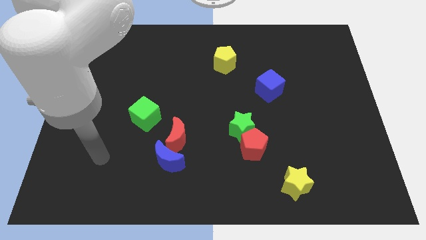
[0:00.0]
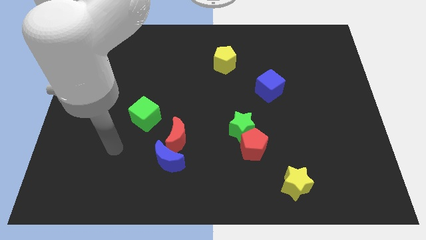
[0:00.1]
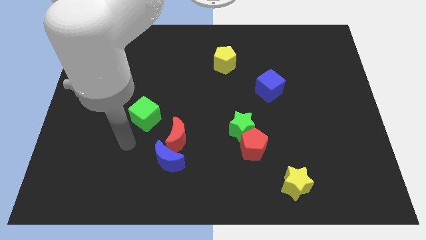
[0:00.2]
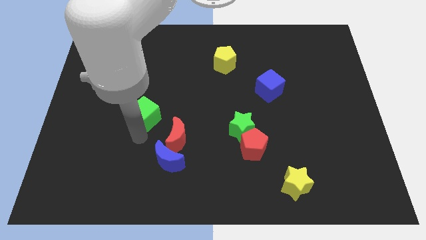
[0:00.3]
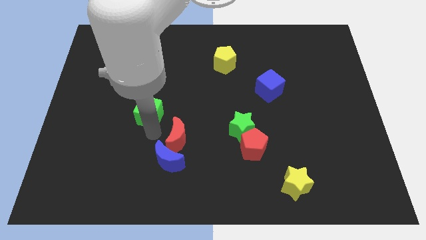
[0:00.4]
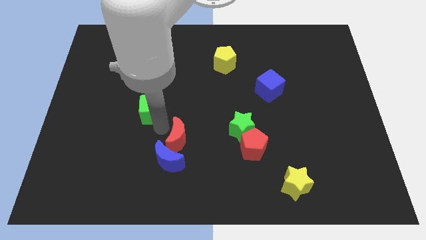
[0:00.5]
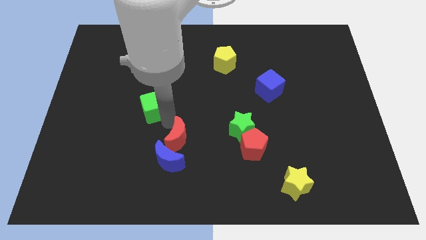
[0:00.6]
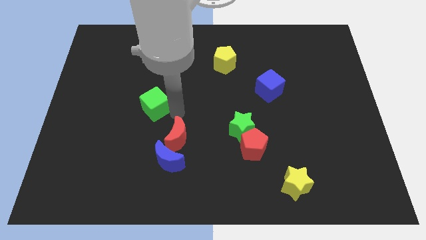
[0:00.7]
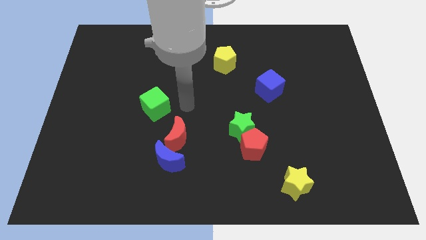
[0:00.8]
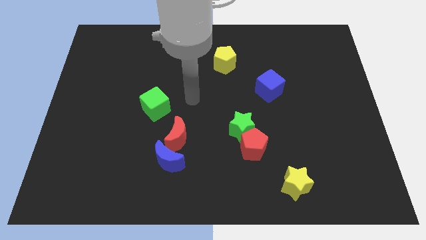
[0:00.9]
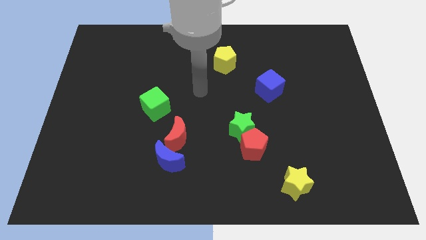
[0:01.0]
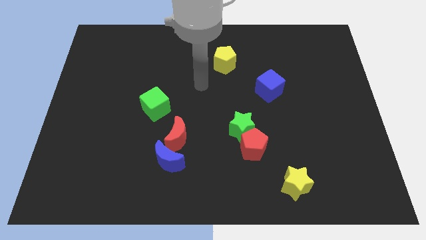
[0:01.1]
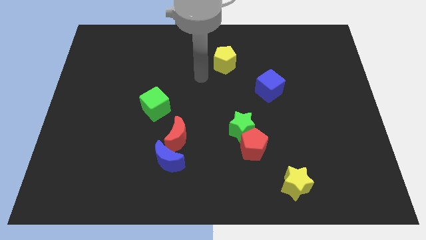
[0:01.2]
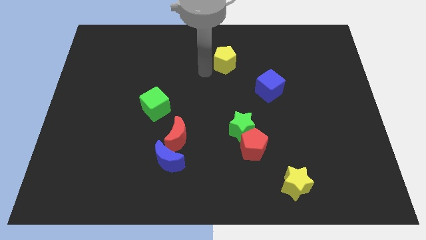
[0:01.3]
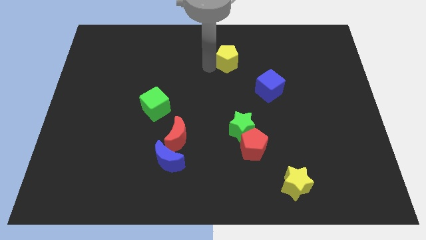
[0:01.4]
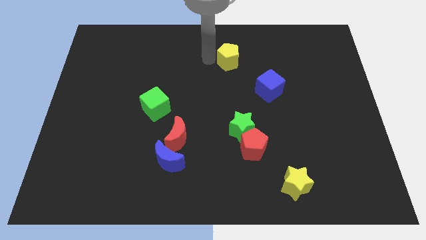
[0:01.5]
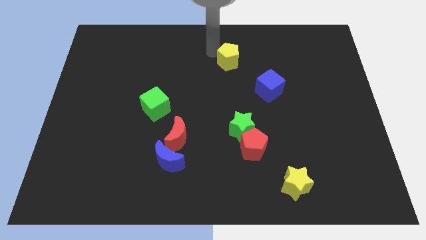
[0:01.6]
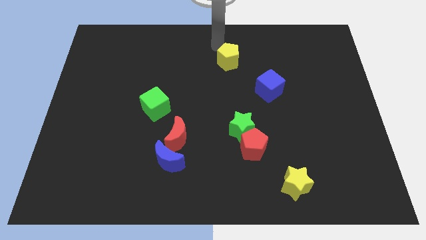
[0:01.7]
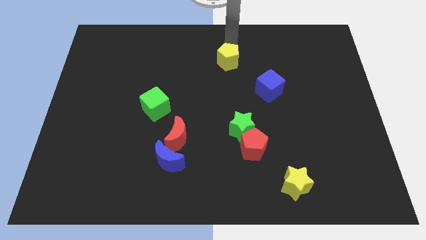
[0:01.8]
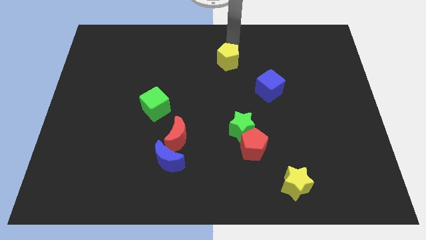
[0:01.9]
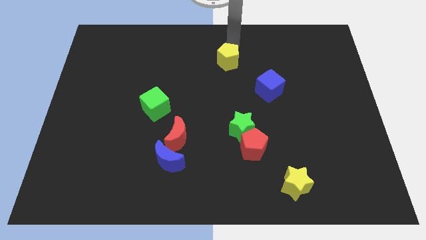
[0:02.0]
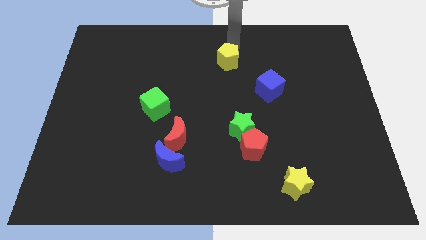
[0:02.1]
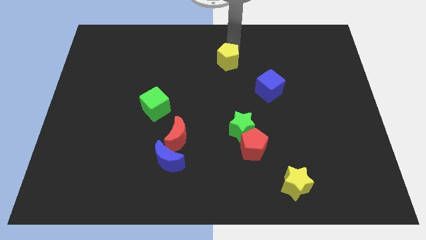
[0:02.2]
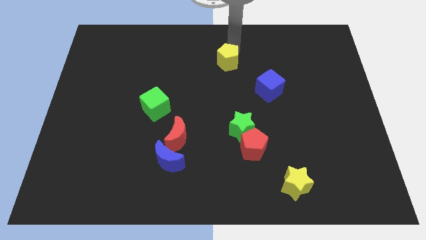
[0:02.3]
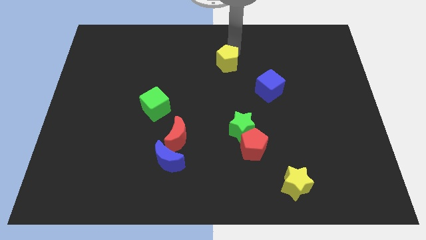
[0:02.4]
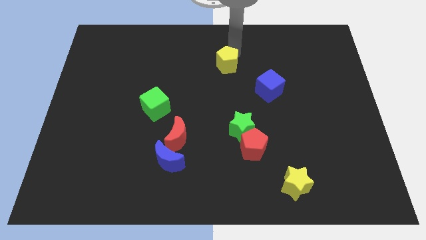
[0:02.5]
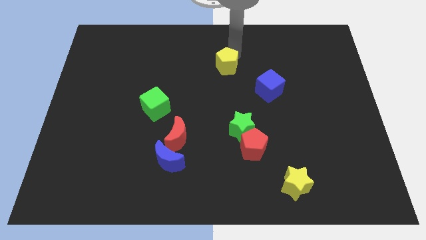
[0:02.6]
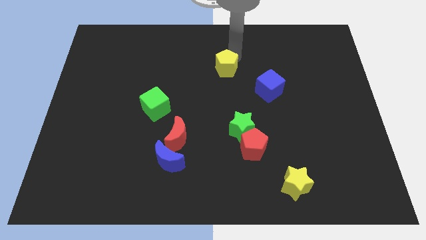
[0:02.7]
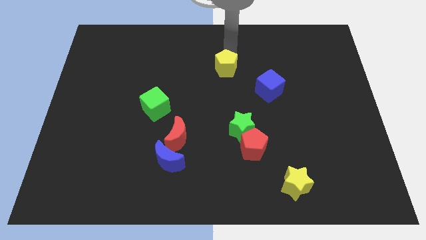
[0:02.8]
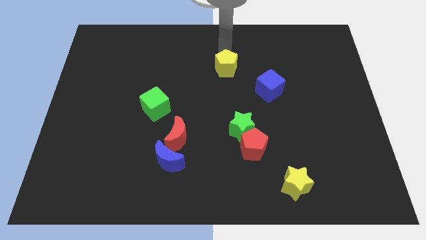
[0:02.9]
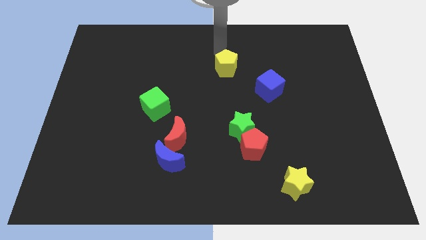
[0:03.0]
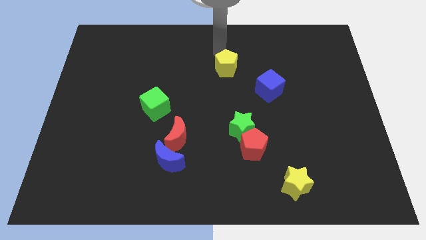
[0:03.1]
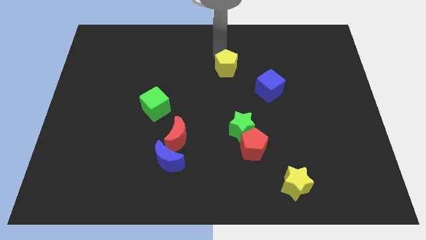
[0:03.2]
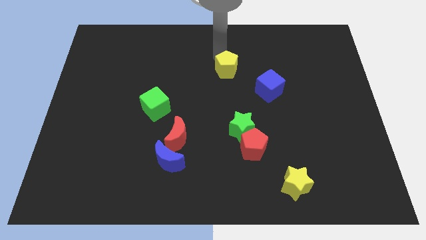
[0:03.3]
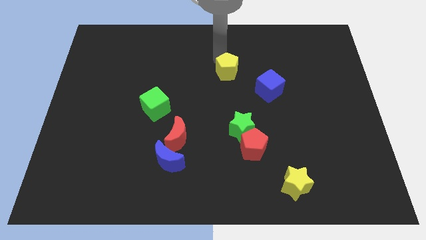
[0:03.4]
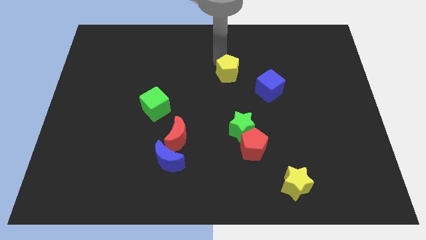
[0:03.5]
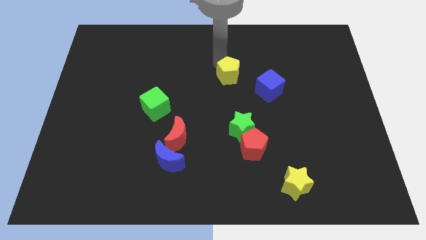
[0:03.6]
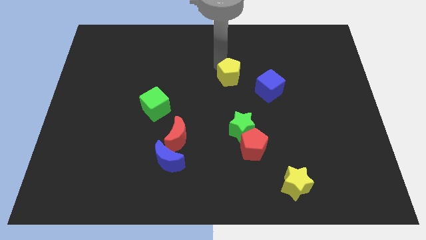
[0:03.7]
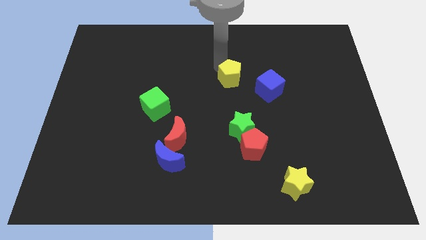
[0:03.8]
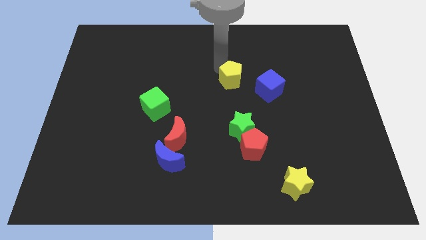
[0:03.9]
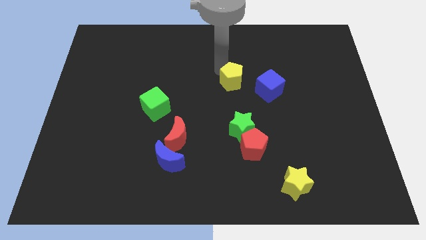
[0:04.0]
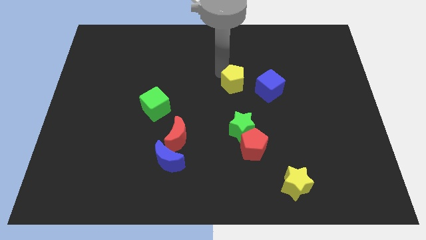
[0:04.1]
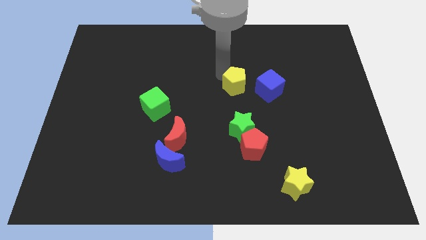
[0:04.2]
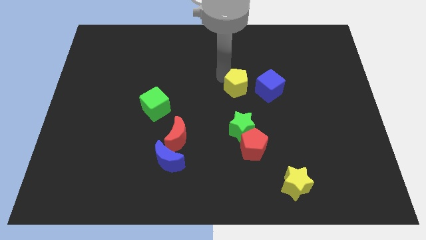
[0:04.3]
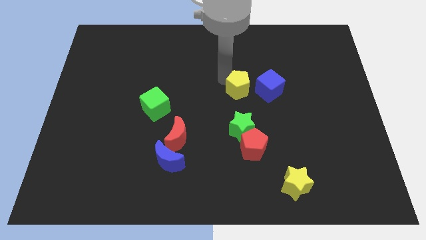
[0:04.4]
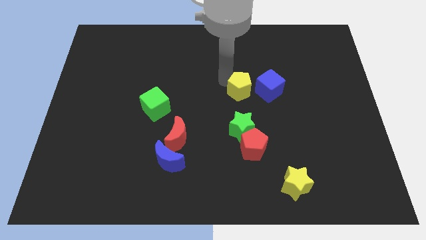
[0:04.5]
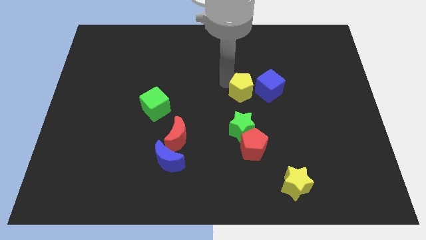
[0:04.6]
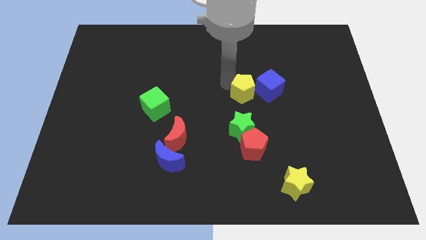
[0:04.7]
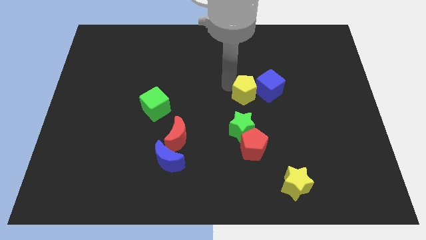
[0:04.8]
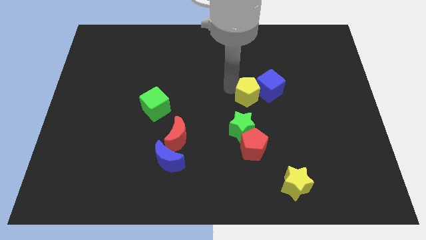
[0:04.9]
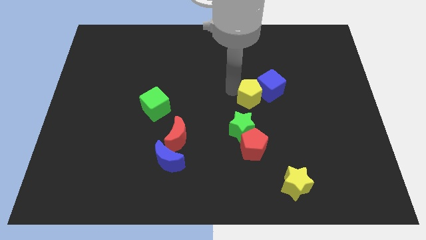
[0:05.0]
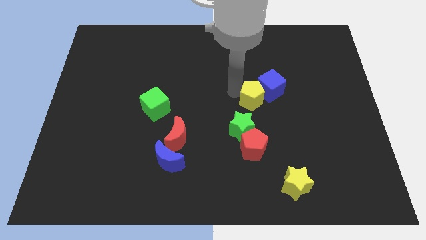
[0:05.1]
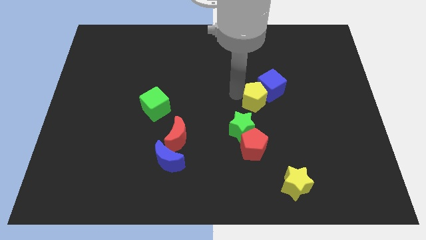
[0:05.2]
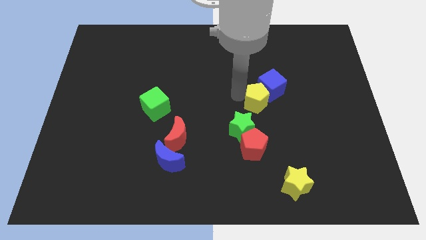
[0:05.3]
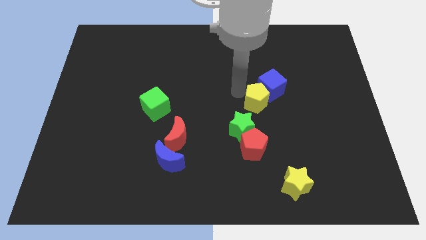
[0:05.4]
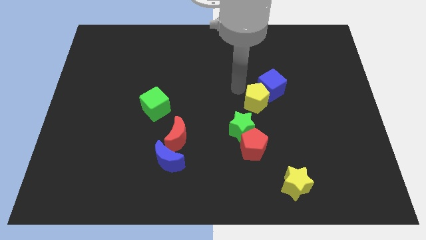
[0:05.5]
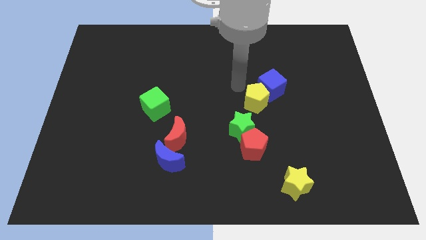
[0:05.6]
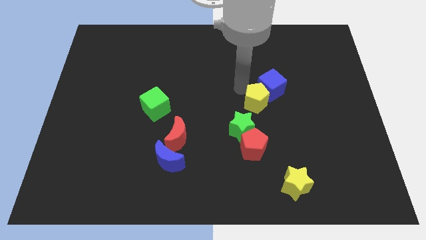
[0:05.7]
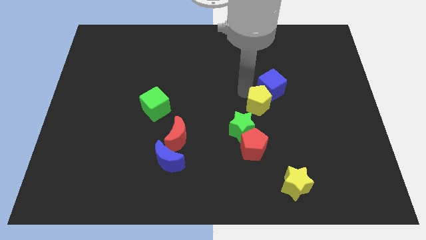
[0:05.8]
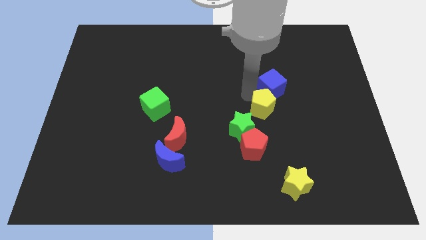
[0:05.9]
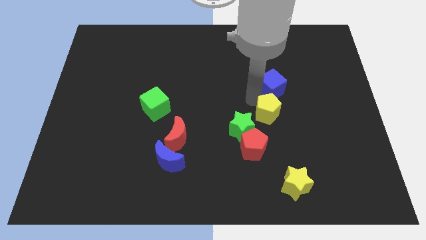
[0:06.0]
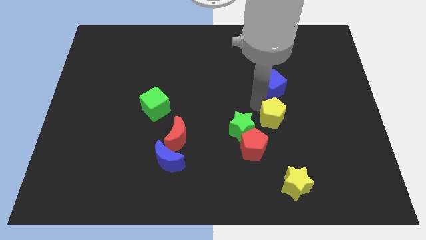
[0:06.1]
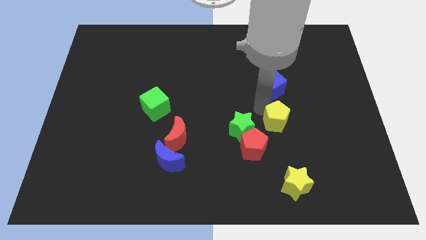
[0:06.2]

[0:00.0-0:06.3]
push the yellow pentagon diagonally down and right

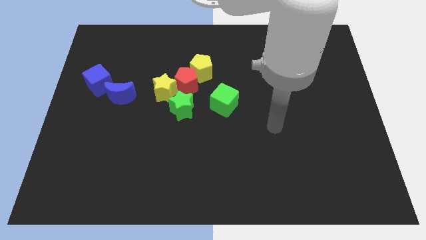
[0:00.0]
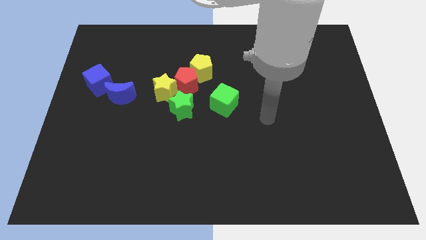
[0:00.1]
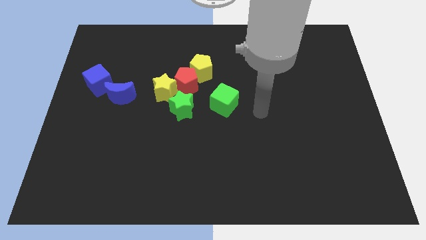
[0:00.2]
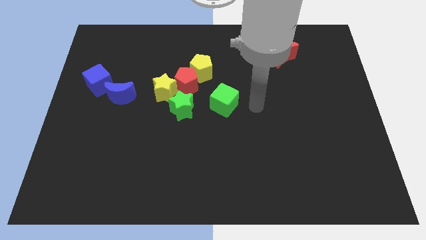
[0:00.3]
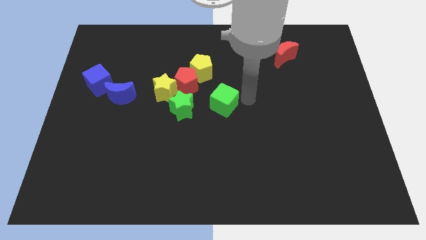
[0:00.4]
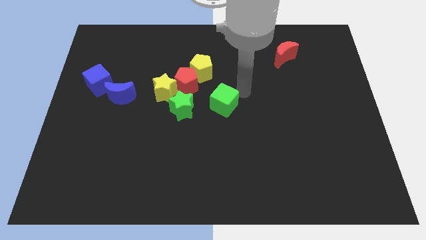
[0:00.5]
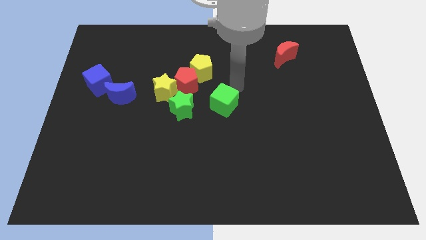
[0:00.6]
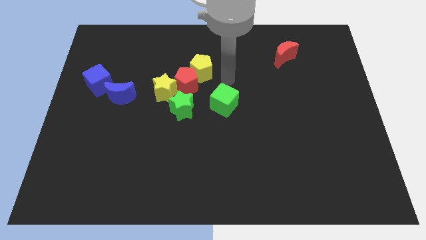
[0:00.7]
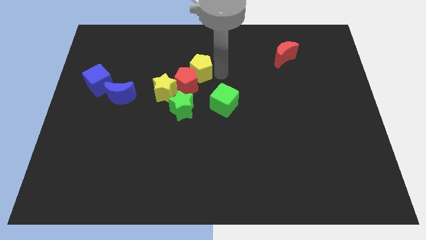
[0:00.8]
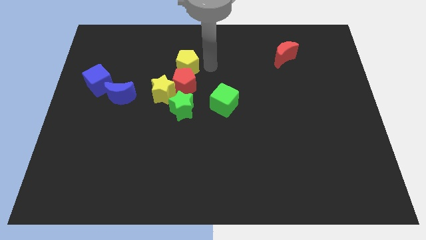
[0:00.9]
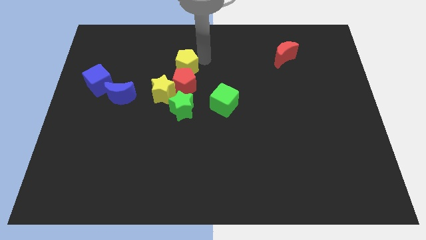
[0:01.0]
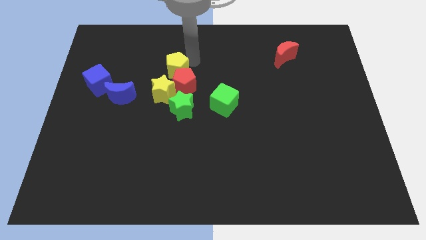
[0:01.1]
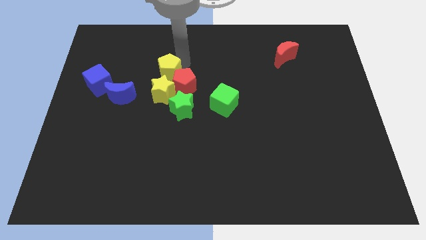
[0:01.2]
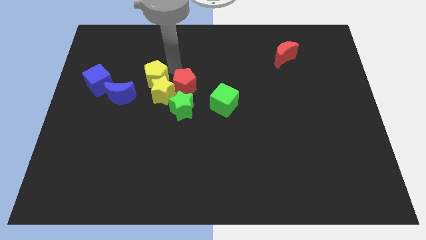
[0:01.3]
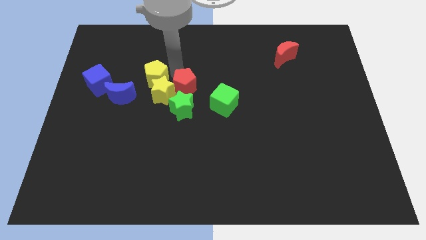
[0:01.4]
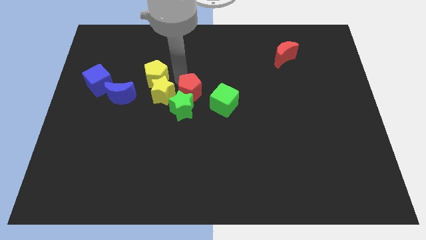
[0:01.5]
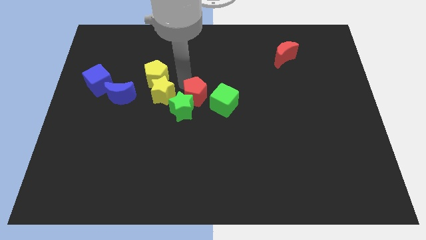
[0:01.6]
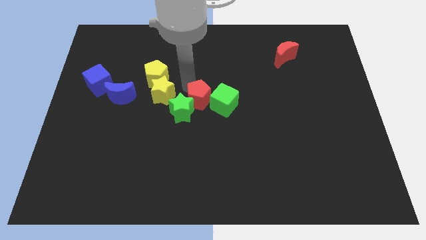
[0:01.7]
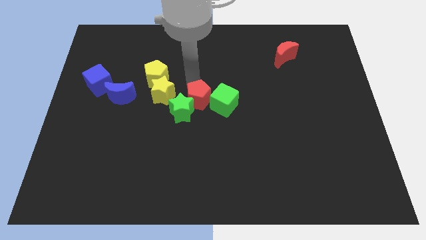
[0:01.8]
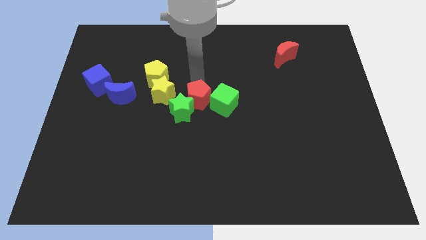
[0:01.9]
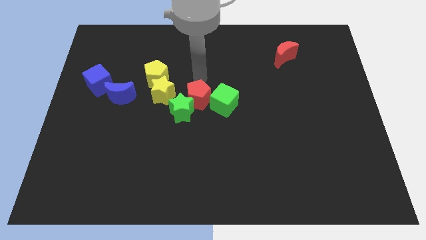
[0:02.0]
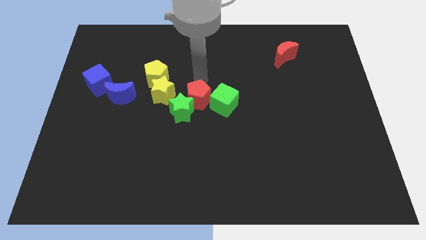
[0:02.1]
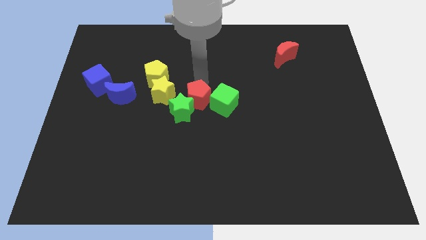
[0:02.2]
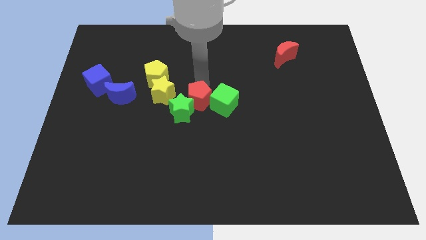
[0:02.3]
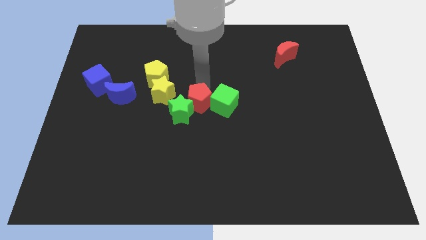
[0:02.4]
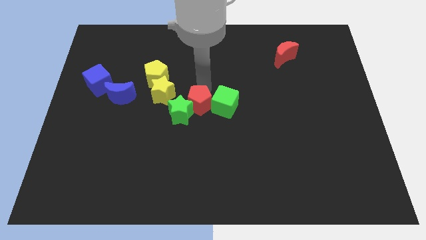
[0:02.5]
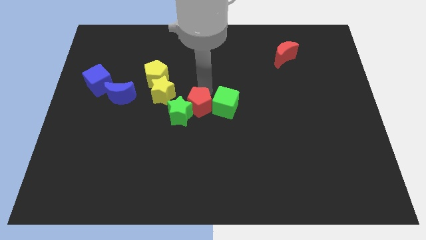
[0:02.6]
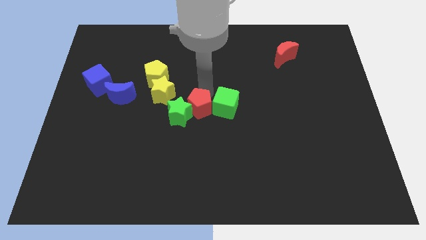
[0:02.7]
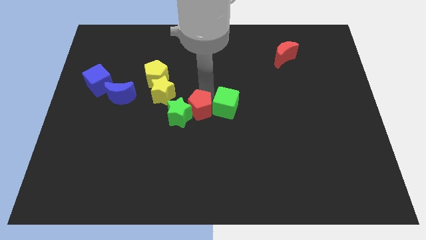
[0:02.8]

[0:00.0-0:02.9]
slide the red pentagon a little down
